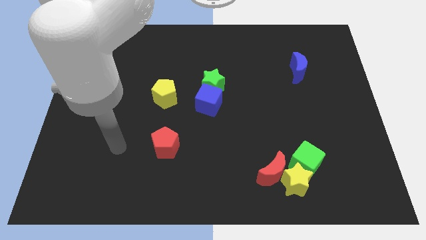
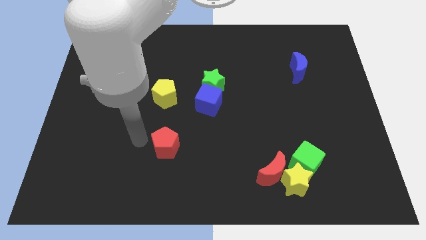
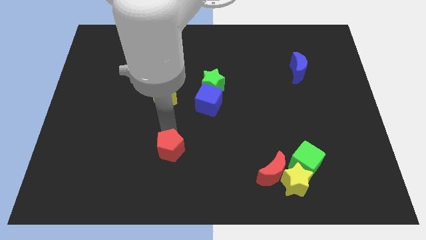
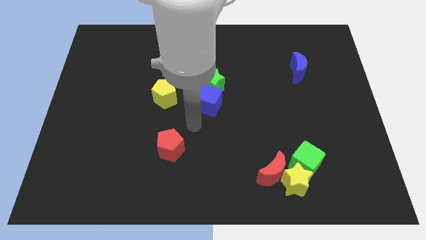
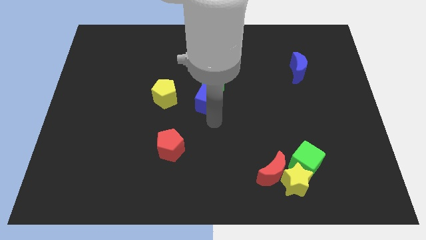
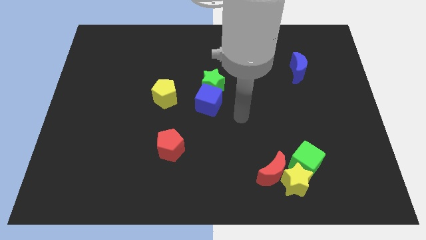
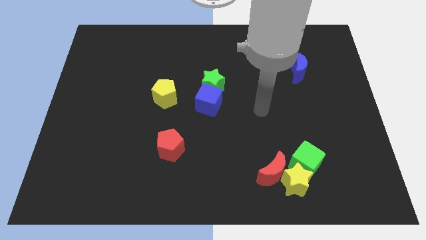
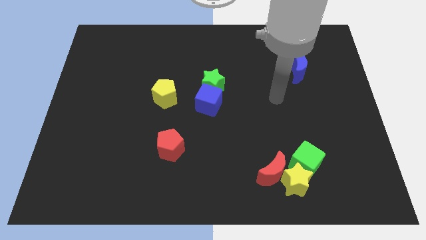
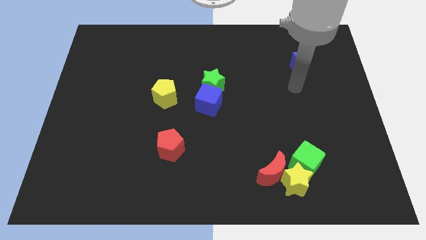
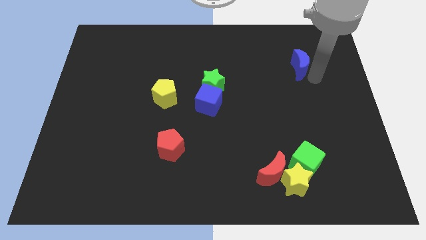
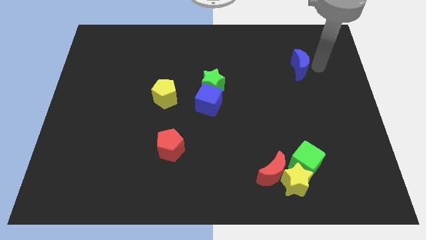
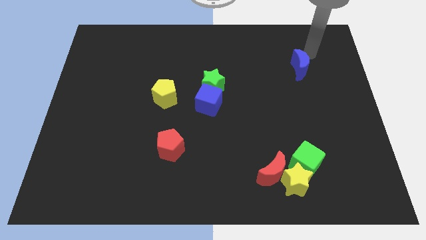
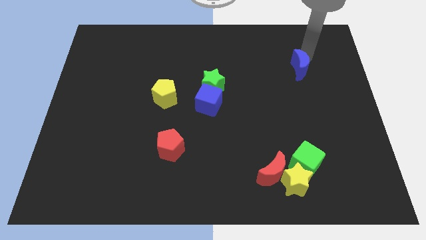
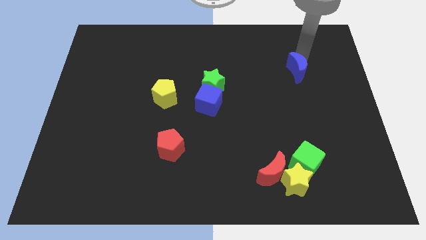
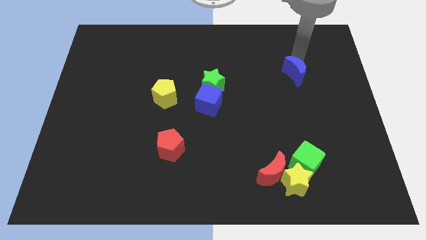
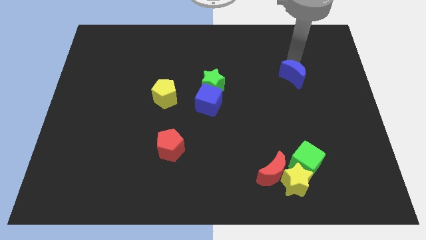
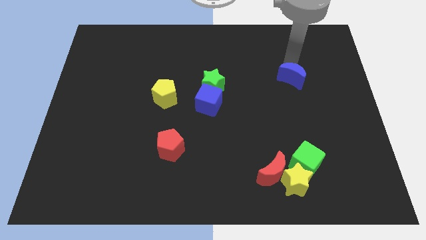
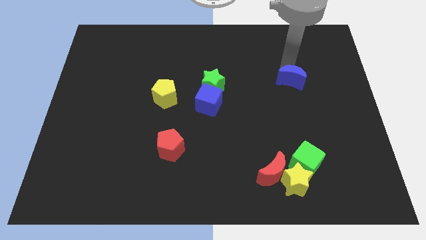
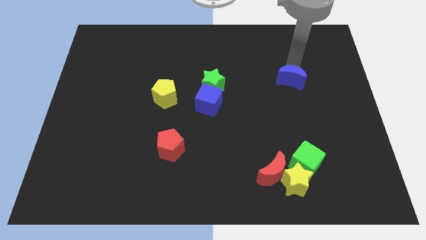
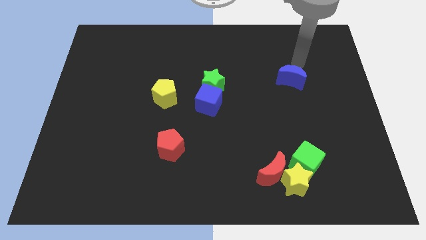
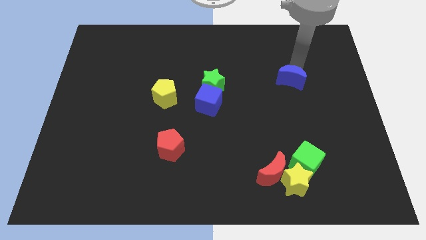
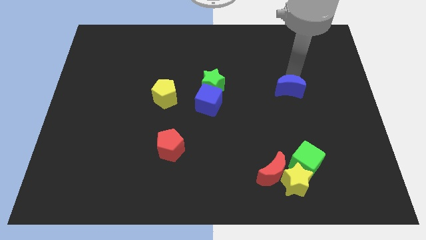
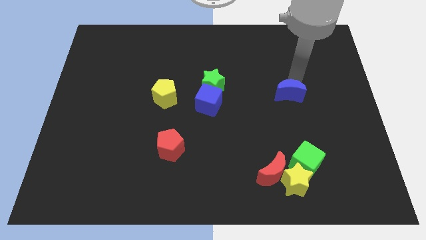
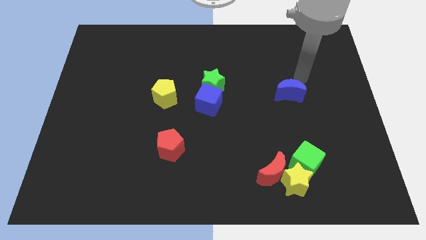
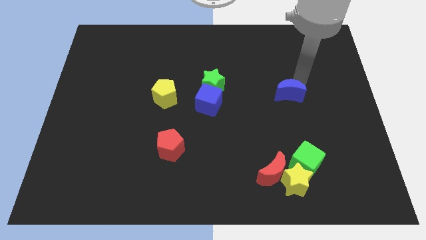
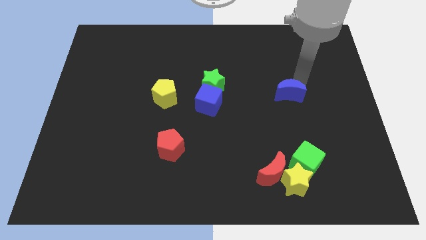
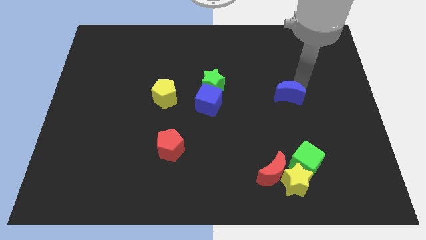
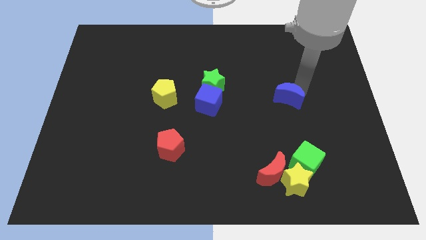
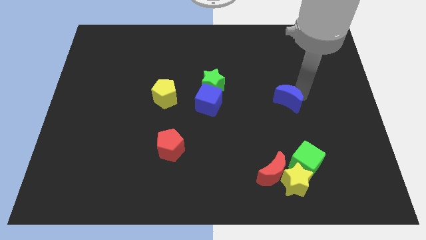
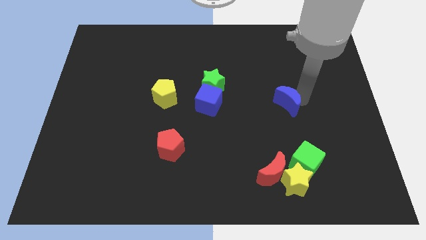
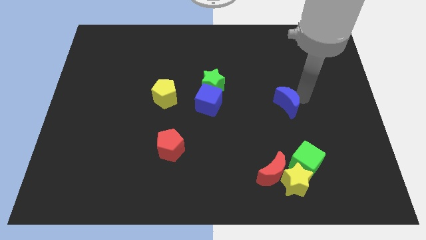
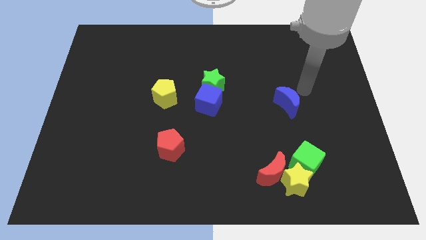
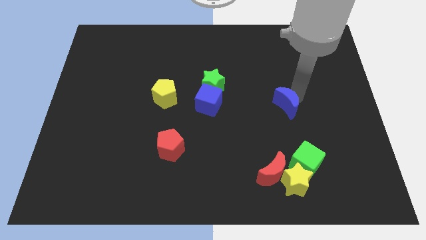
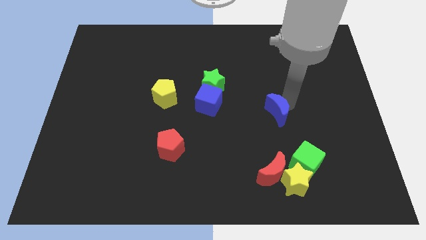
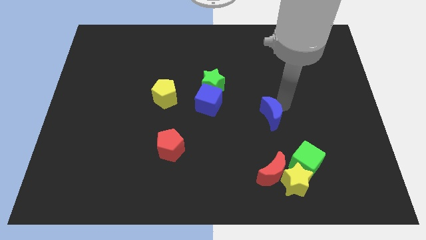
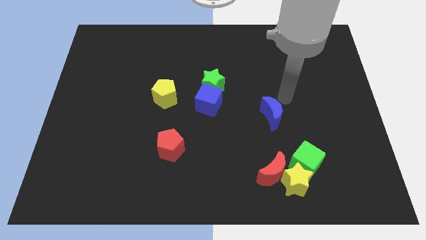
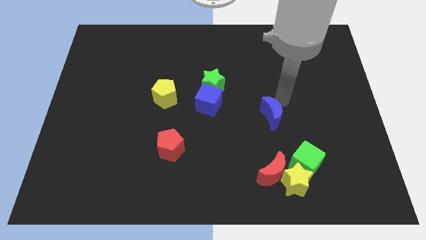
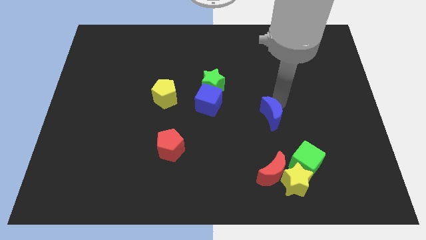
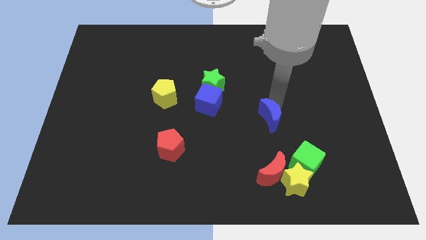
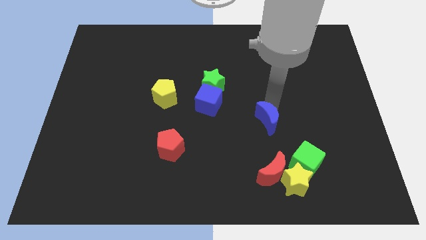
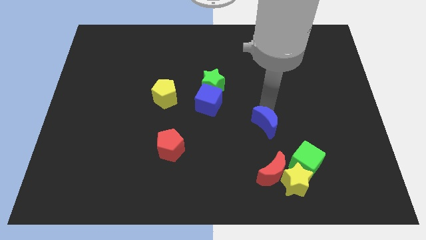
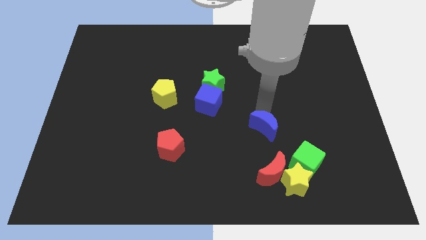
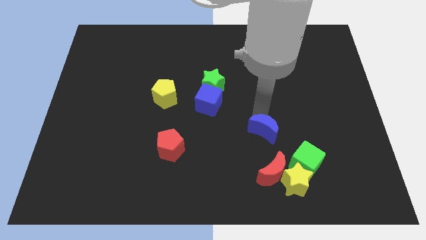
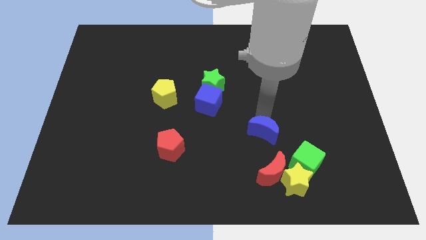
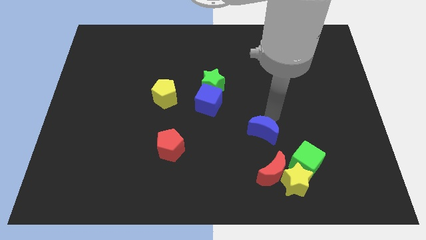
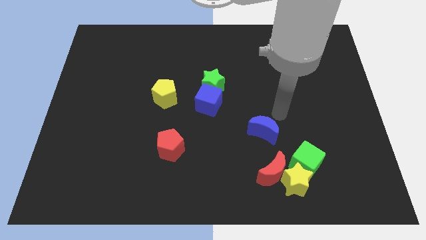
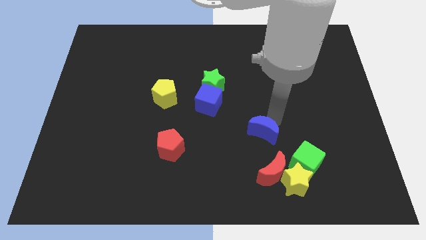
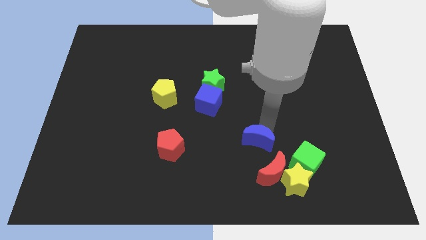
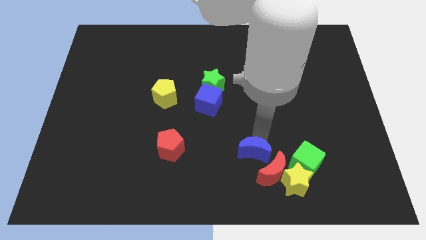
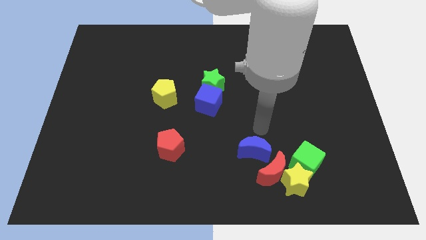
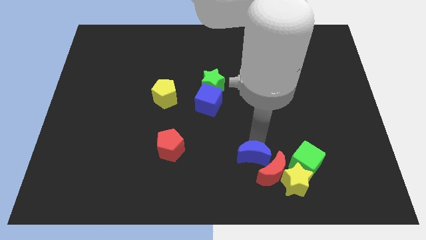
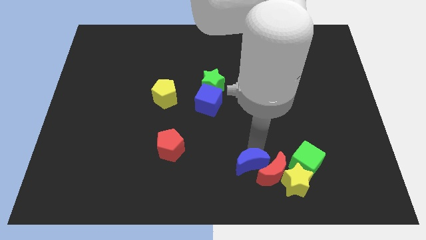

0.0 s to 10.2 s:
slide the blue moon just left of the yellow star

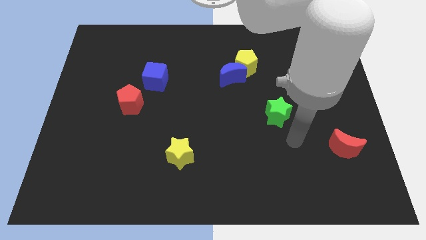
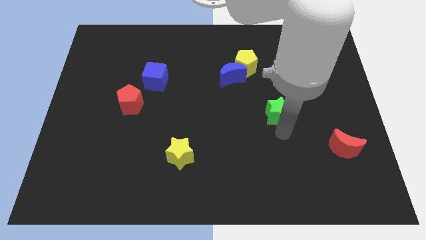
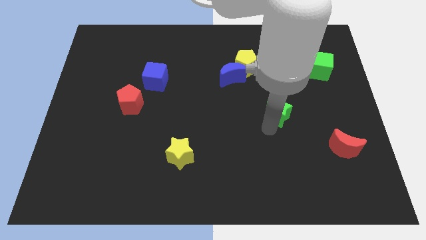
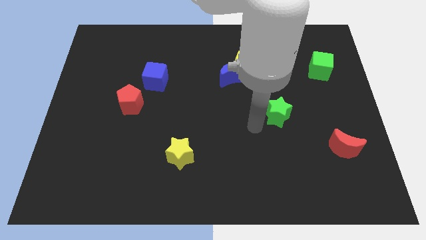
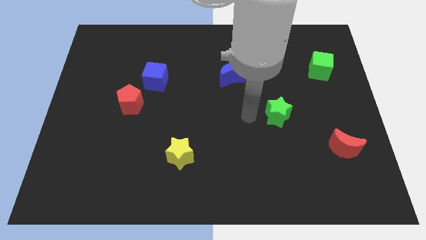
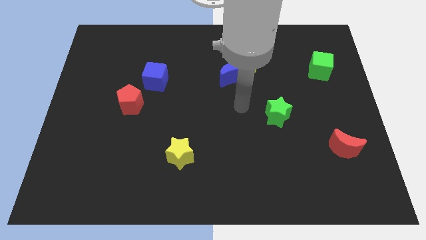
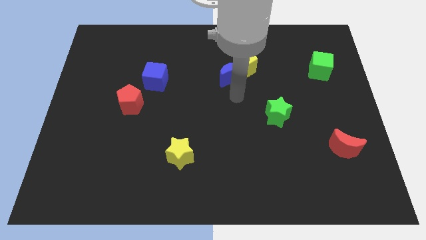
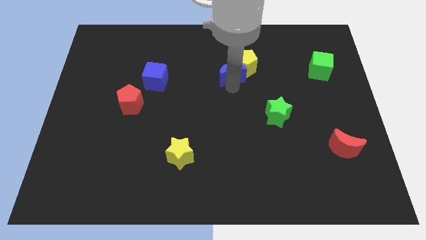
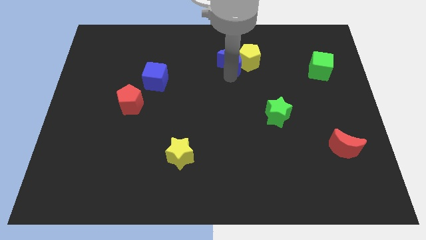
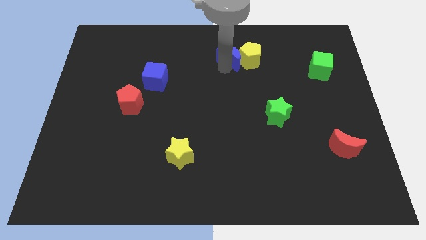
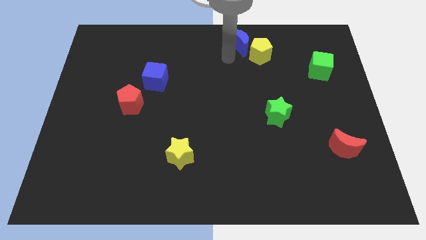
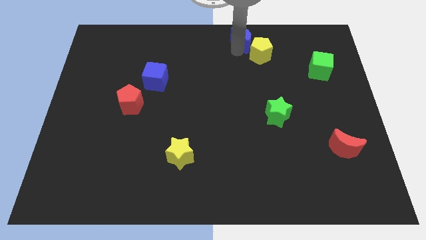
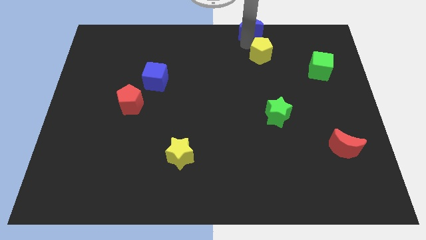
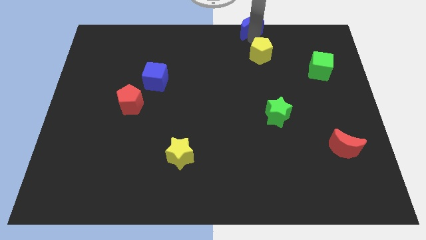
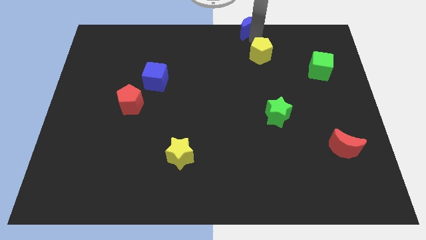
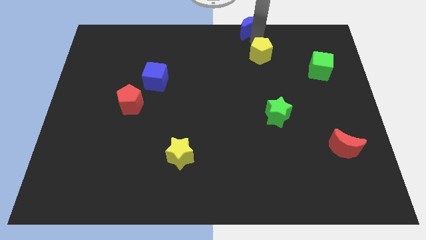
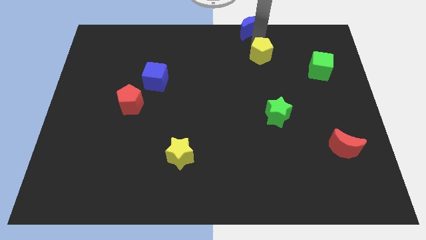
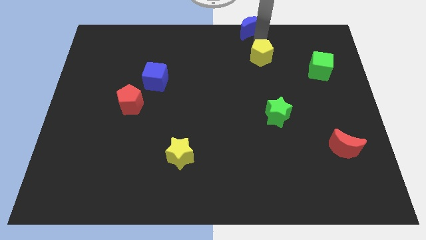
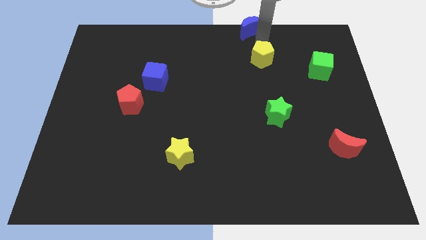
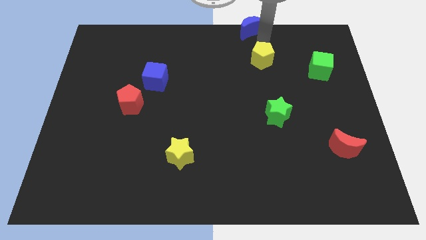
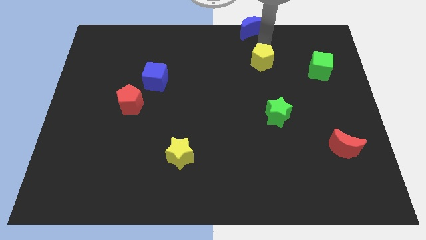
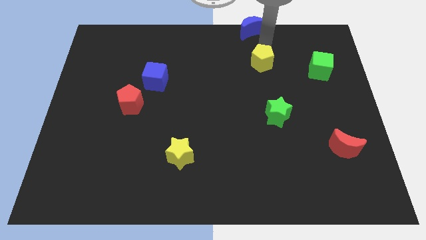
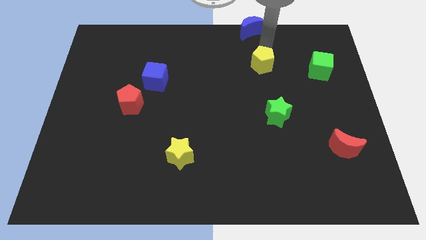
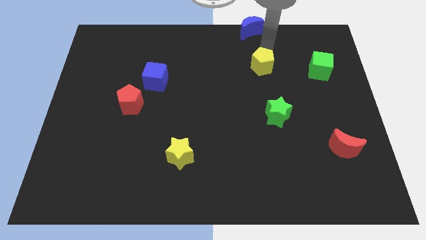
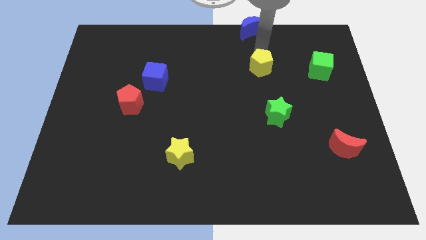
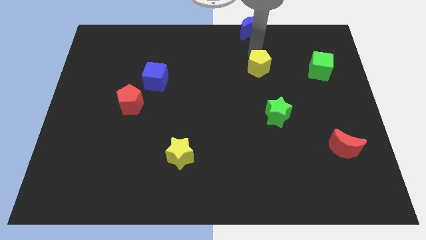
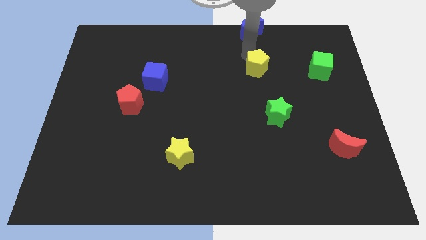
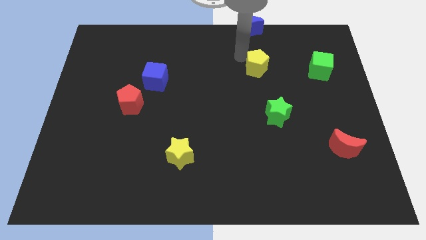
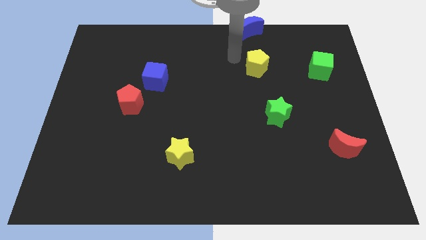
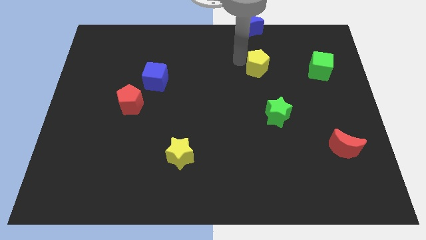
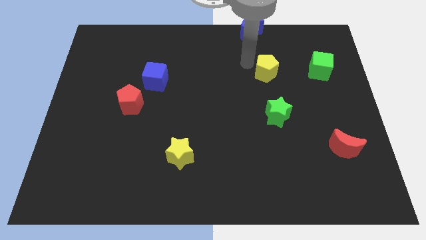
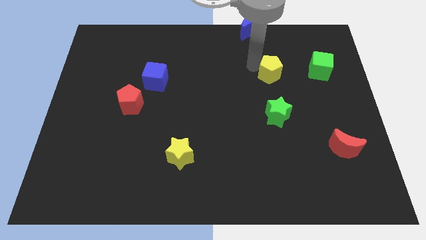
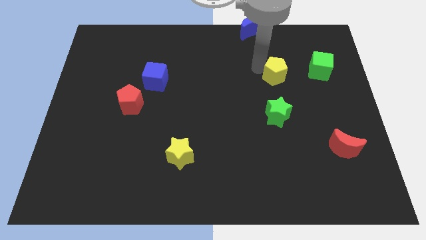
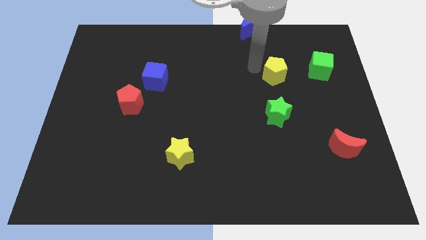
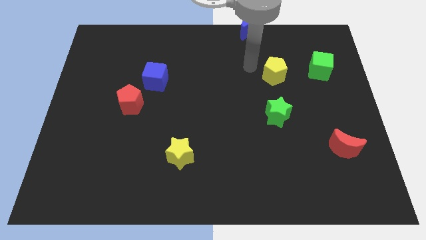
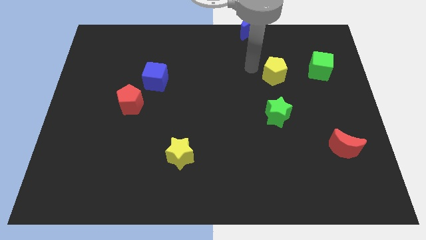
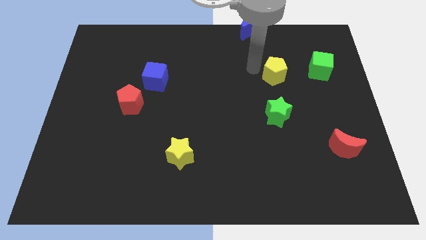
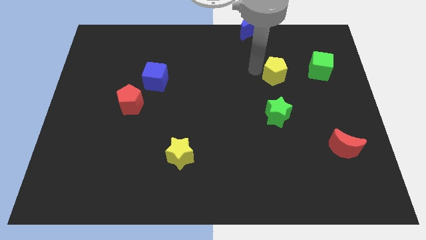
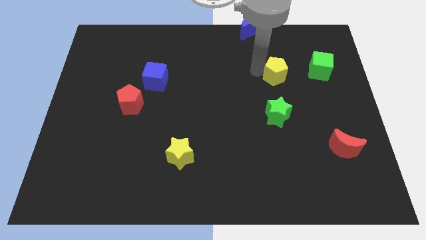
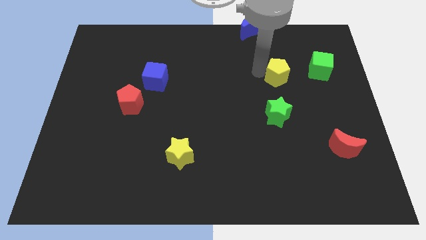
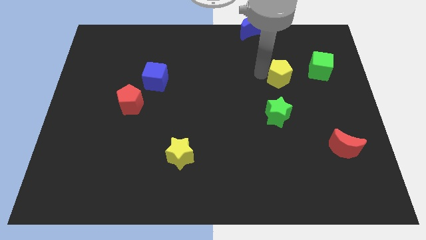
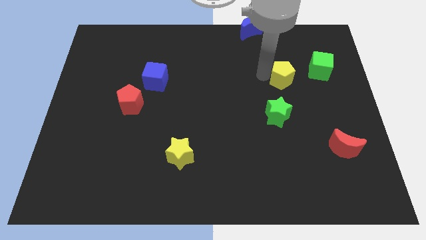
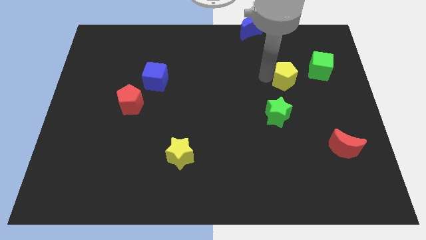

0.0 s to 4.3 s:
slide the yellow pentagon diagonally down and to the left of the green cube
